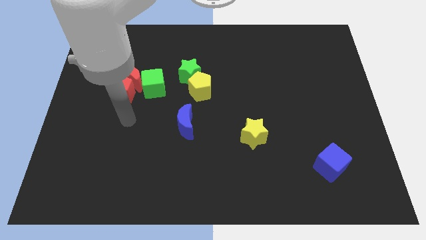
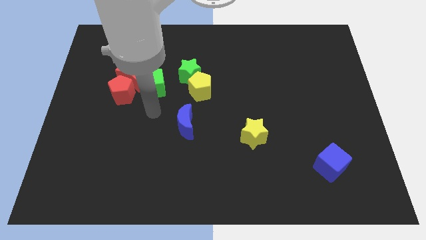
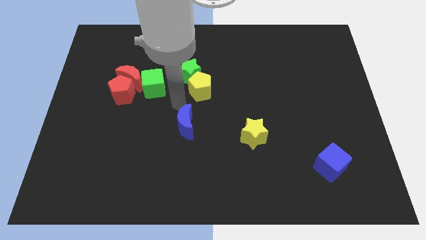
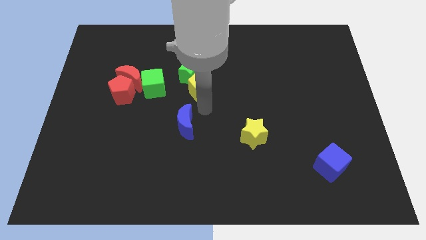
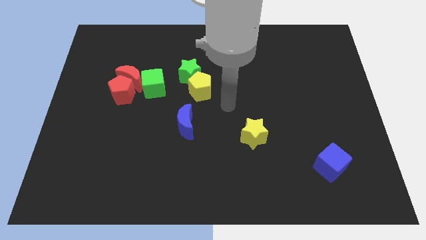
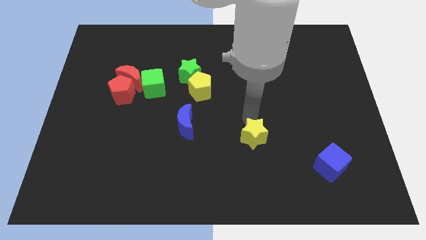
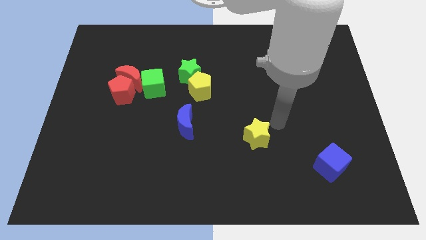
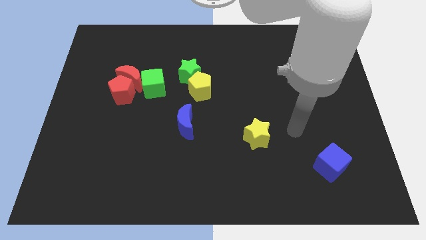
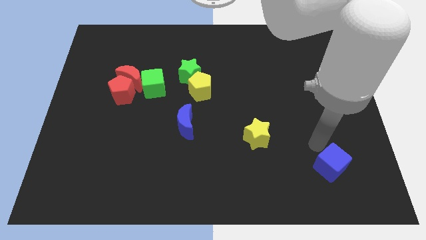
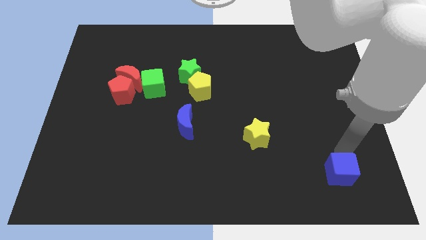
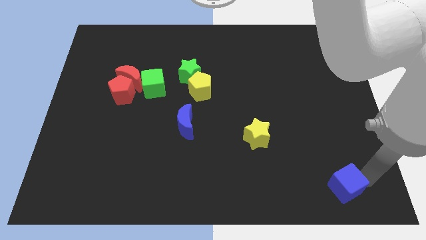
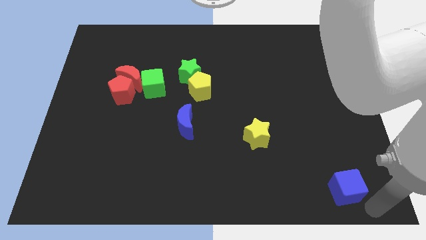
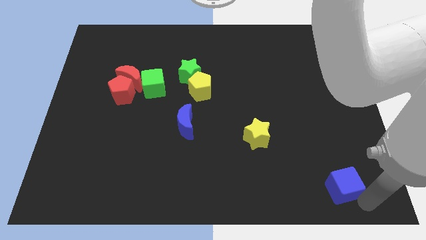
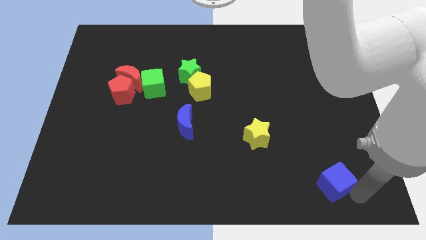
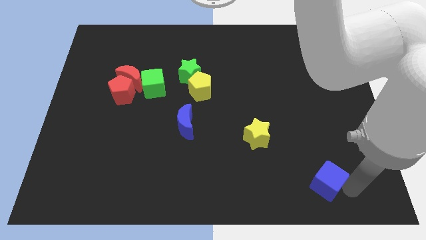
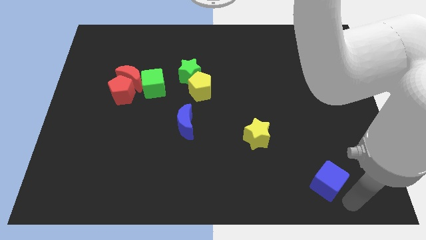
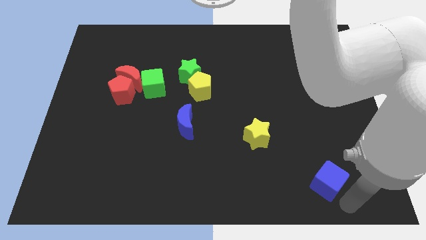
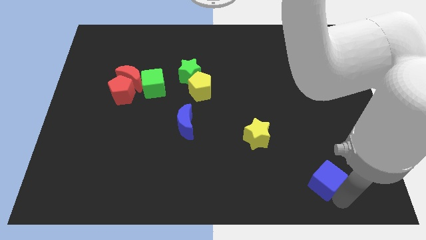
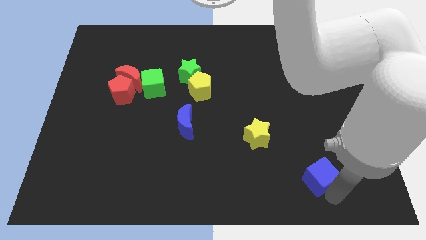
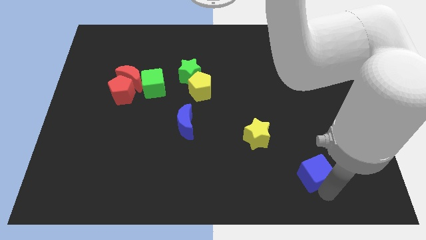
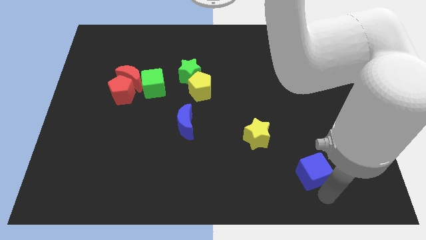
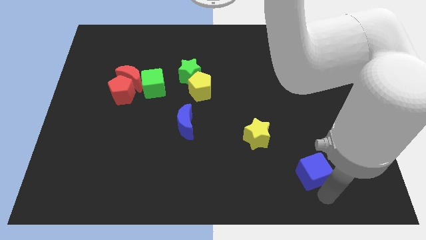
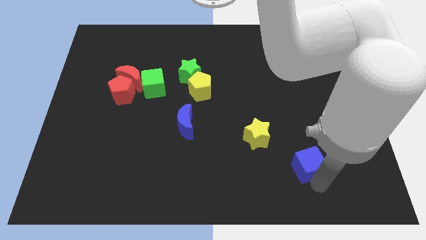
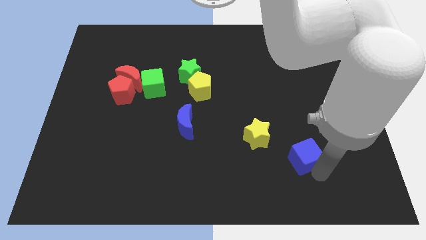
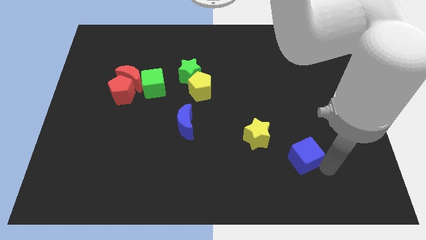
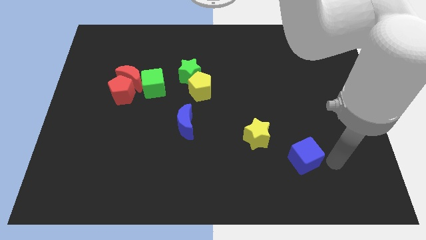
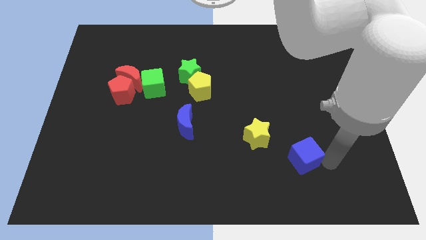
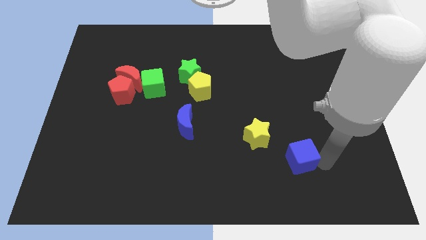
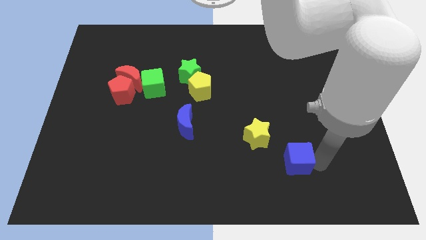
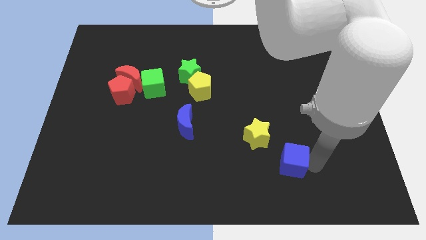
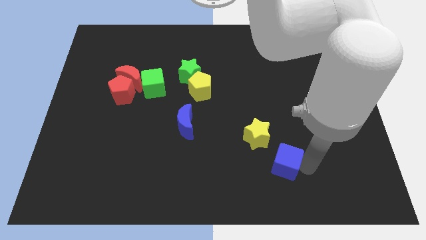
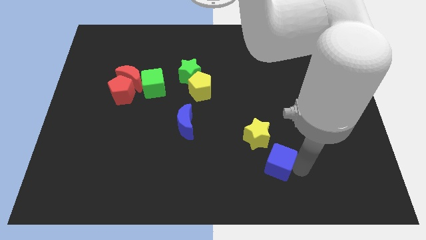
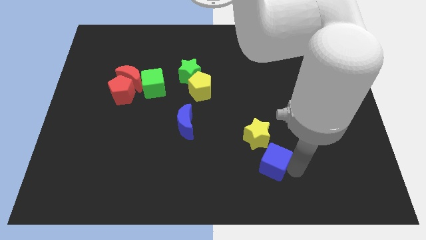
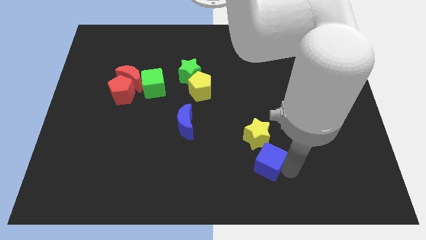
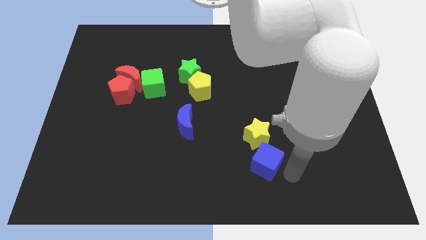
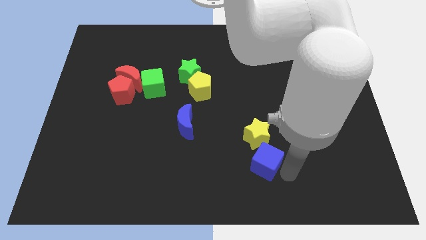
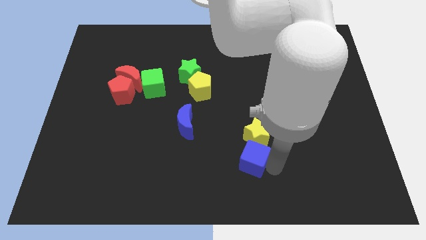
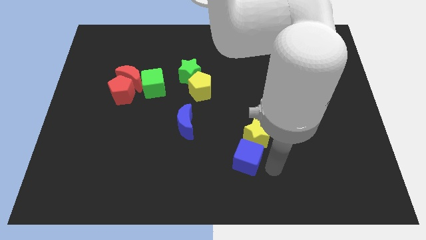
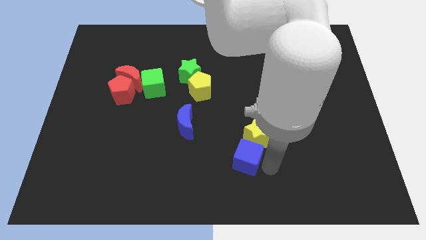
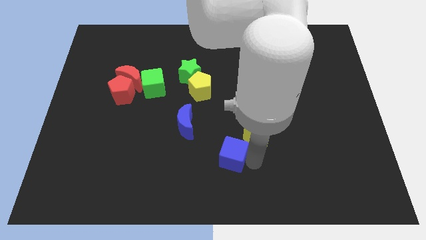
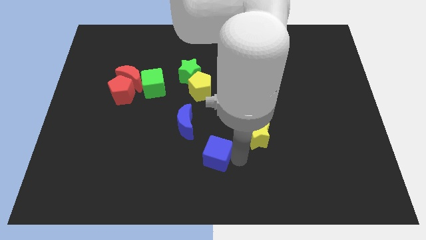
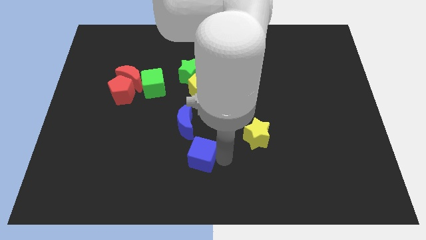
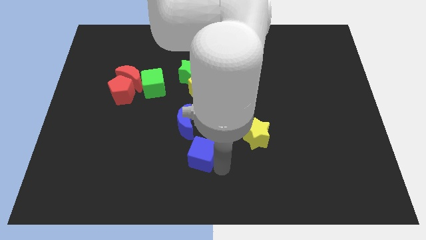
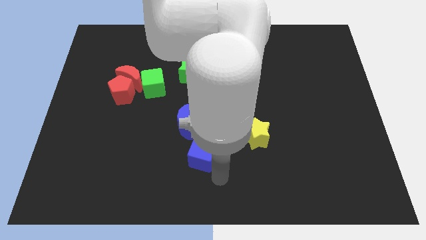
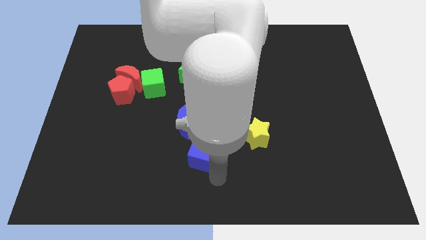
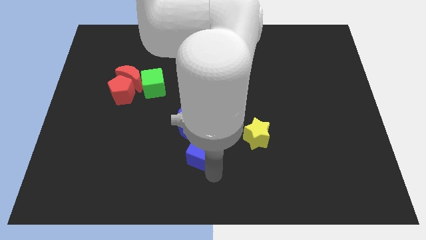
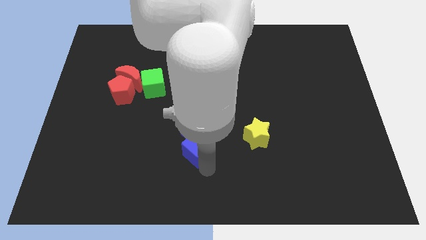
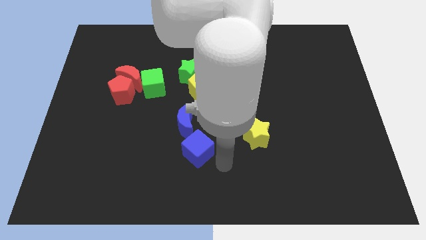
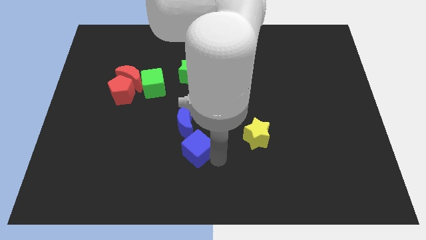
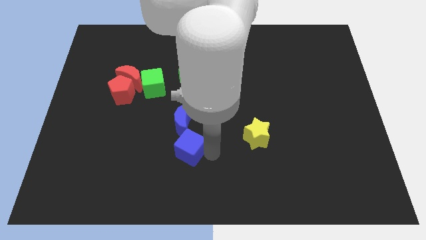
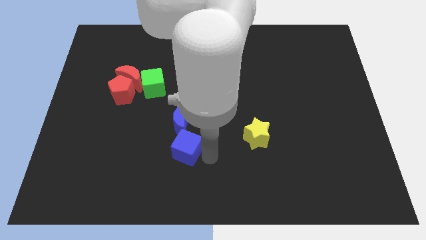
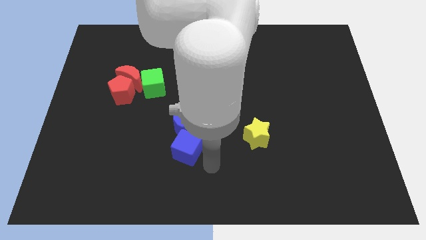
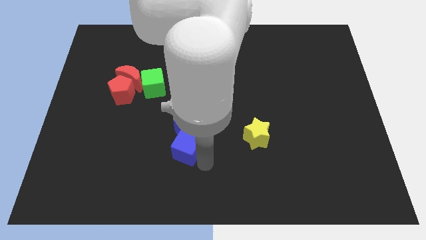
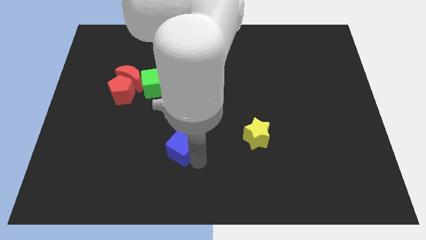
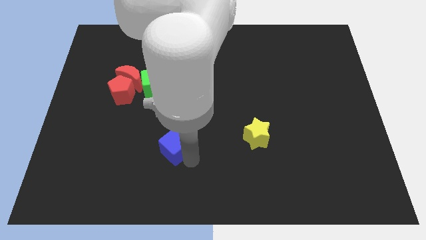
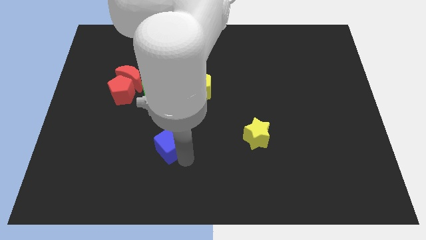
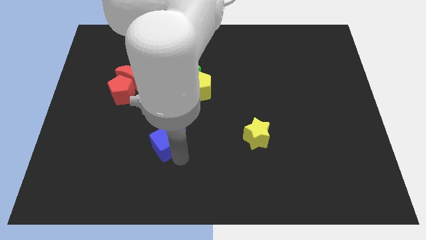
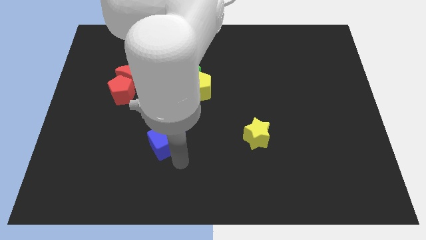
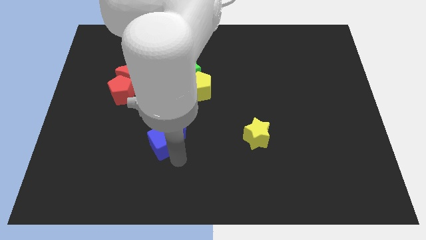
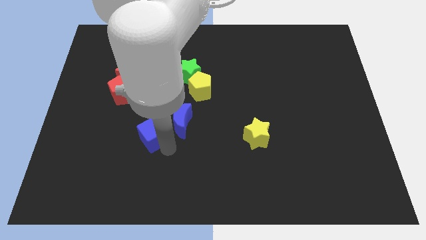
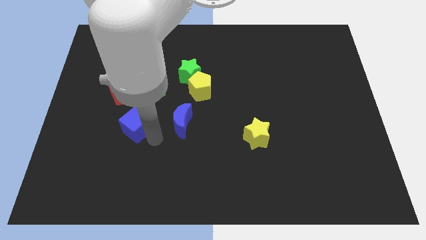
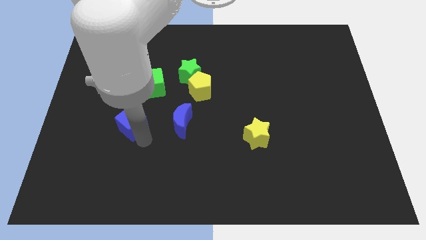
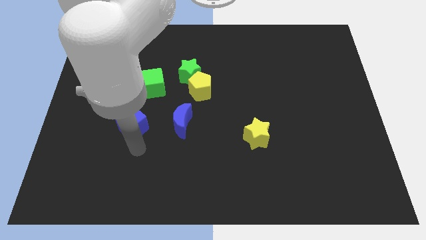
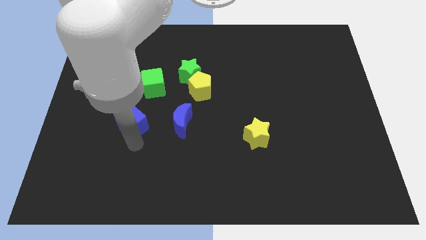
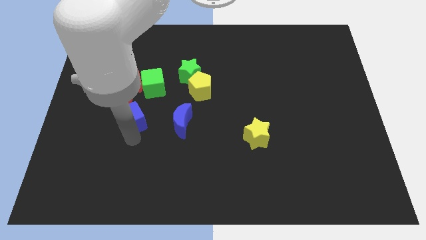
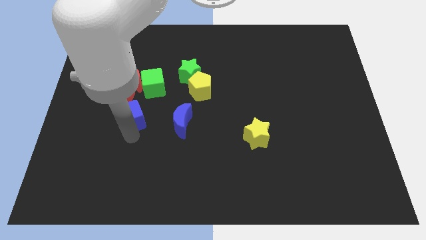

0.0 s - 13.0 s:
push the blue cube to the bottom left side of the green cube

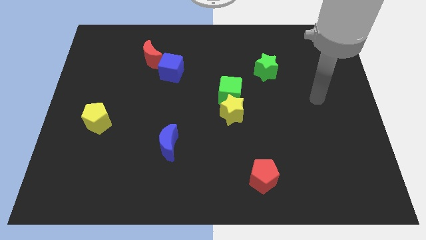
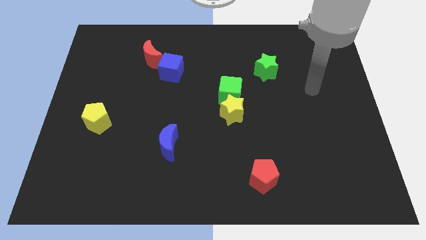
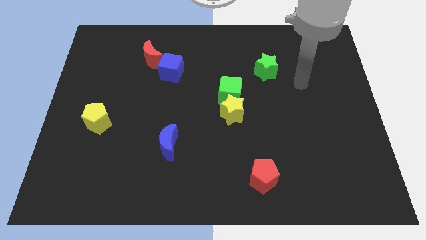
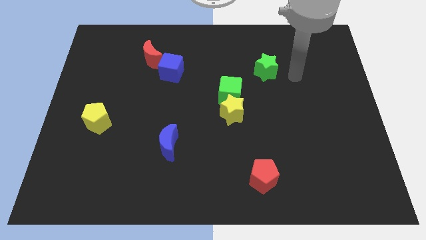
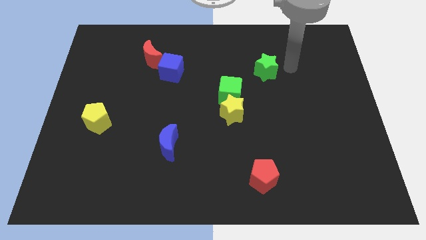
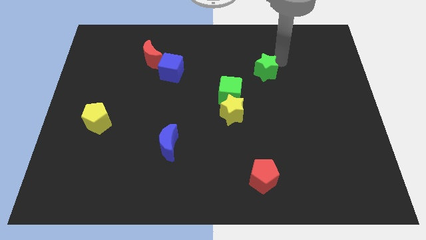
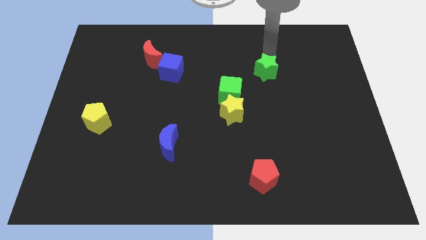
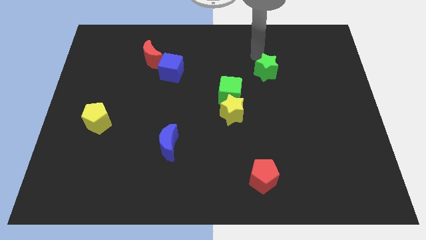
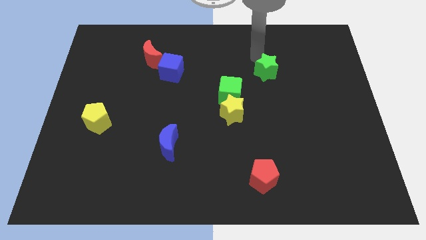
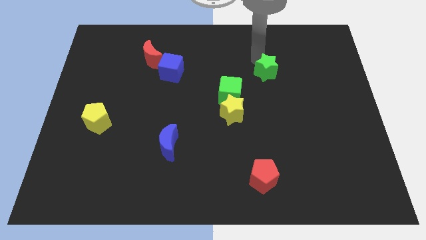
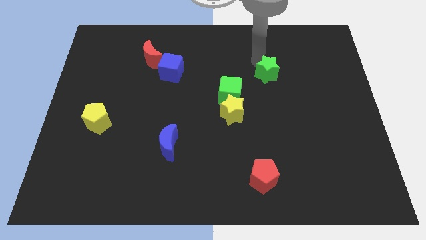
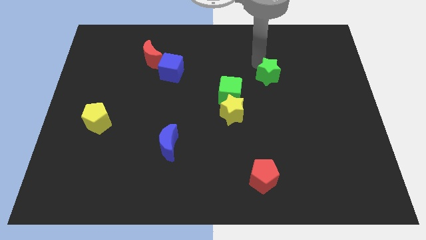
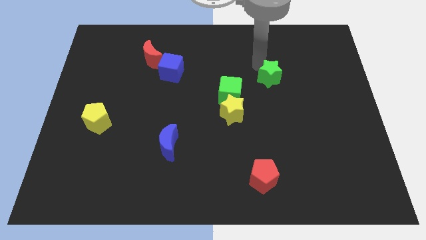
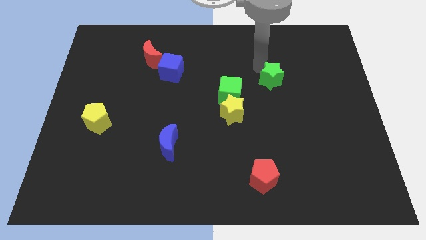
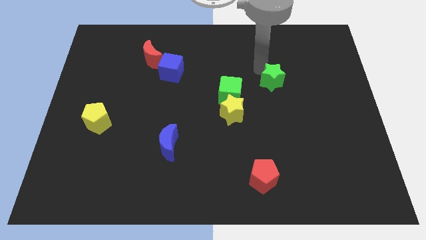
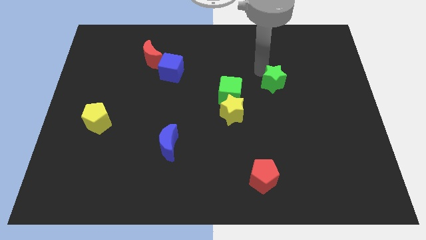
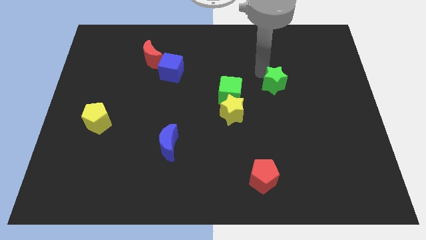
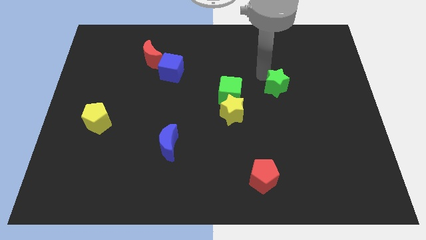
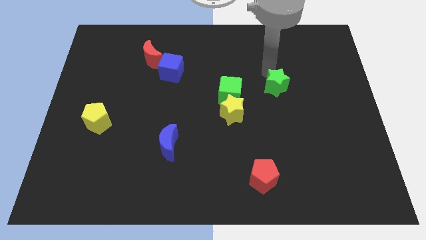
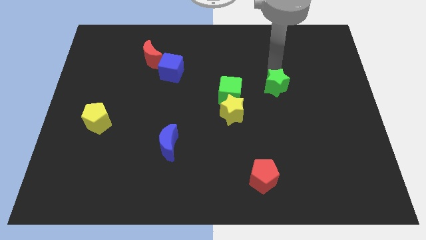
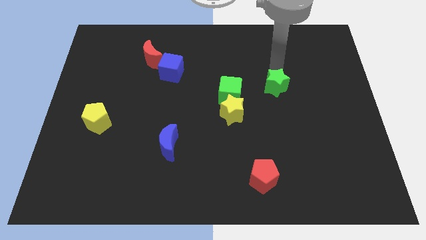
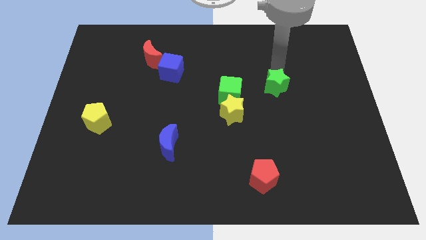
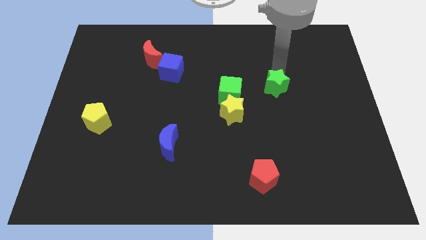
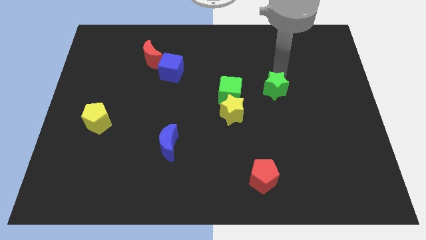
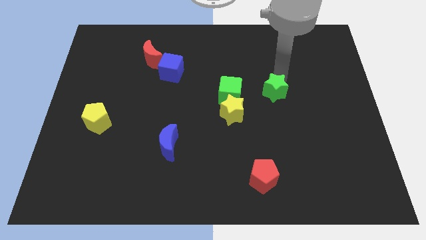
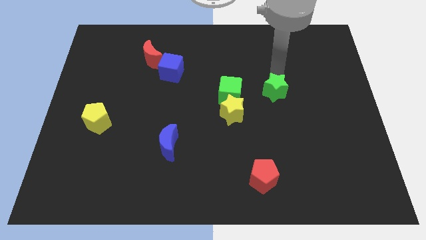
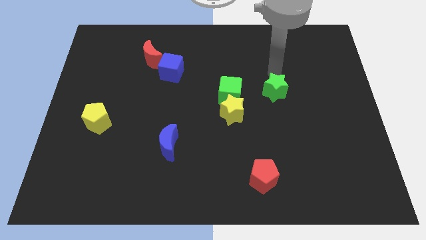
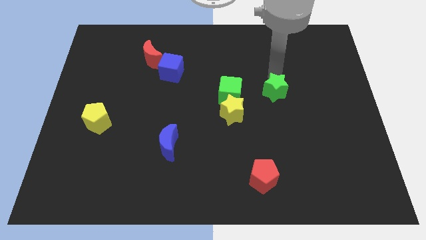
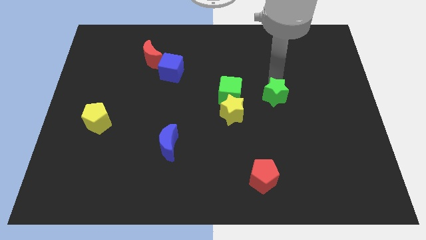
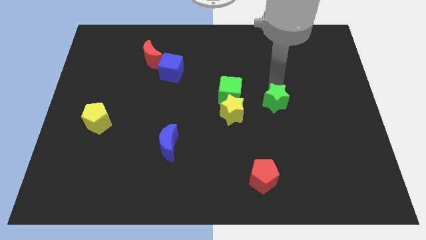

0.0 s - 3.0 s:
slide the green star right of the yellow star
